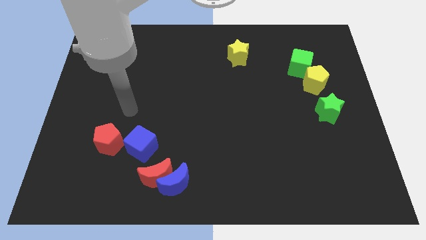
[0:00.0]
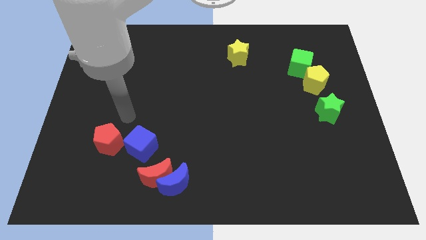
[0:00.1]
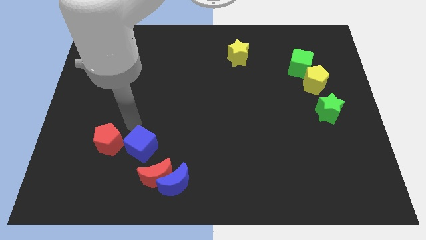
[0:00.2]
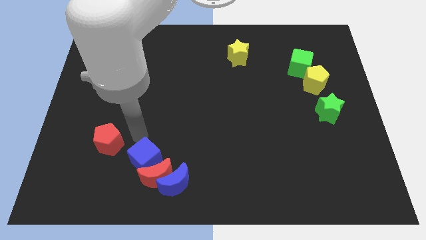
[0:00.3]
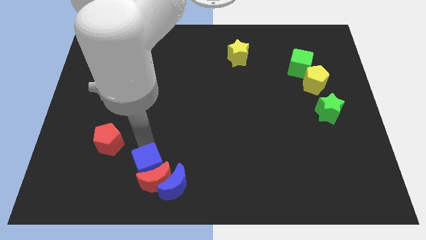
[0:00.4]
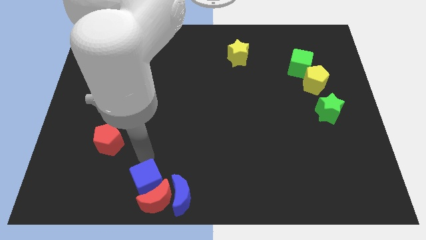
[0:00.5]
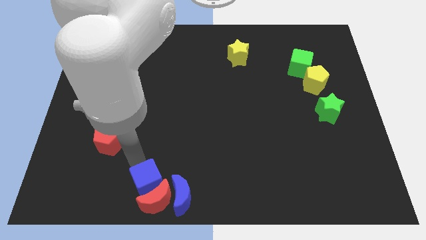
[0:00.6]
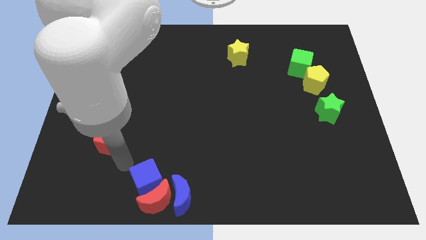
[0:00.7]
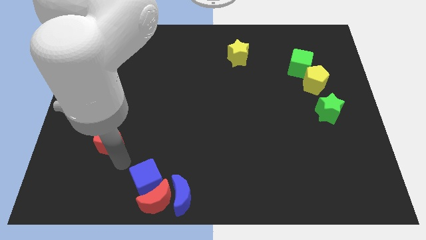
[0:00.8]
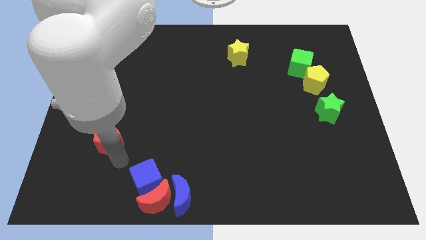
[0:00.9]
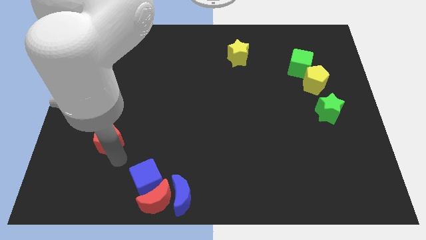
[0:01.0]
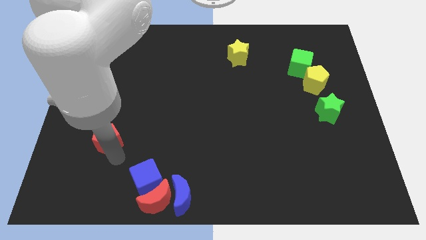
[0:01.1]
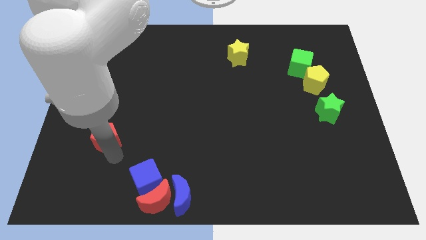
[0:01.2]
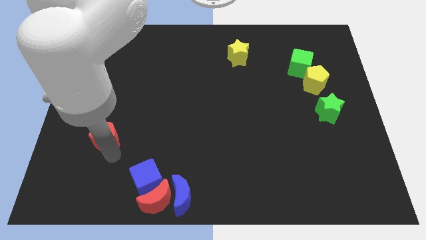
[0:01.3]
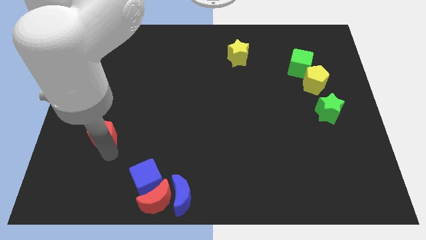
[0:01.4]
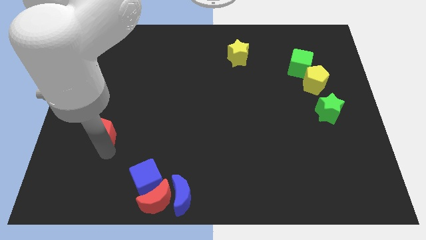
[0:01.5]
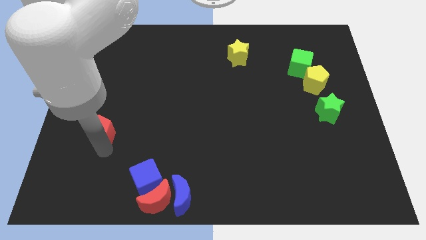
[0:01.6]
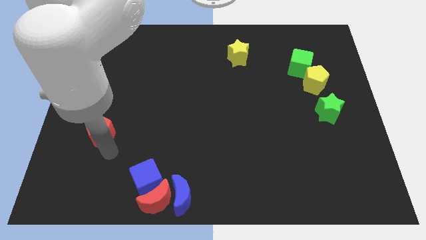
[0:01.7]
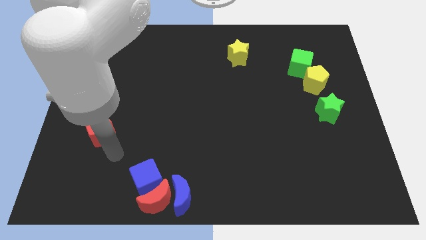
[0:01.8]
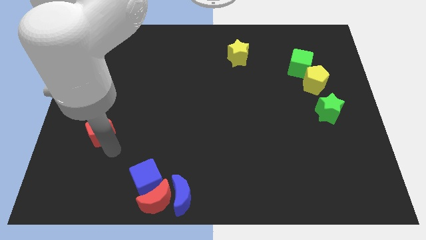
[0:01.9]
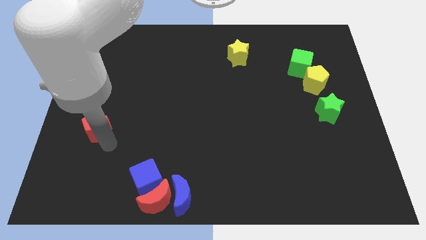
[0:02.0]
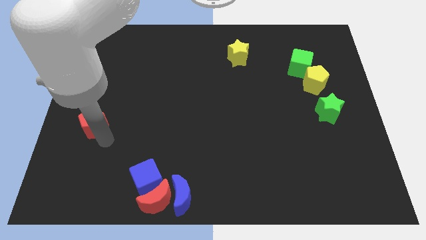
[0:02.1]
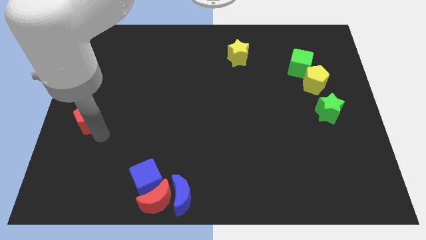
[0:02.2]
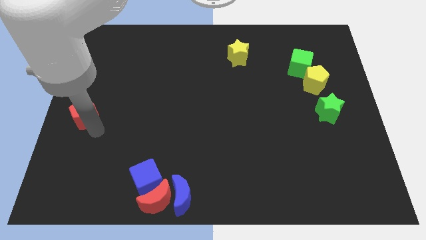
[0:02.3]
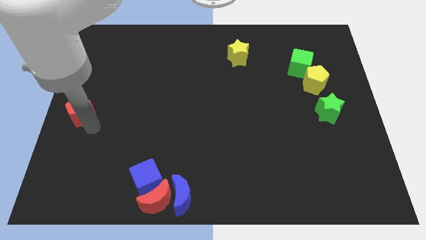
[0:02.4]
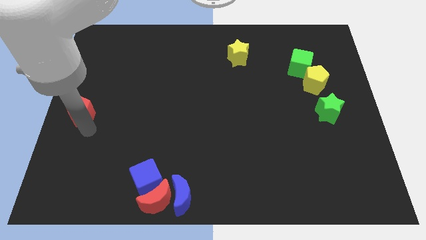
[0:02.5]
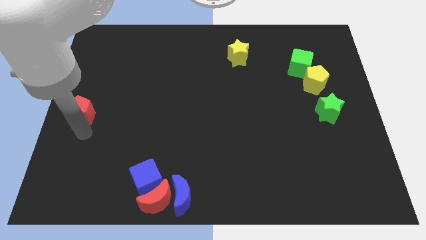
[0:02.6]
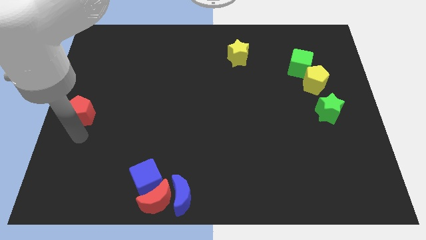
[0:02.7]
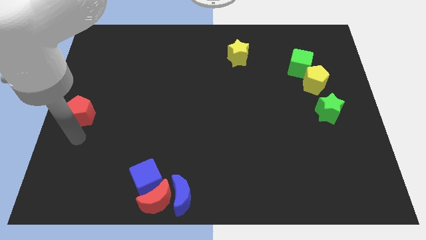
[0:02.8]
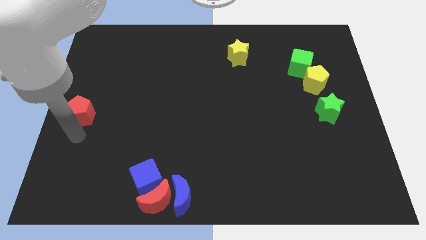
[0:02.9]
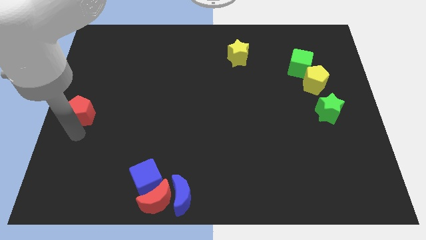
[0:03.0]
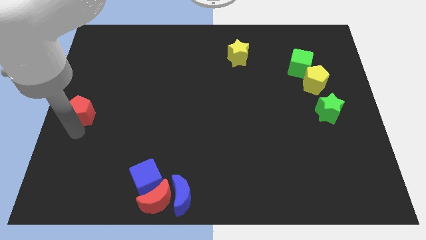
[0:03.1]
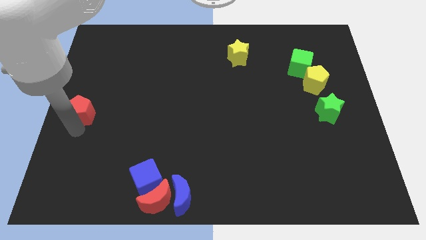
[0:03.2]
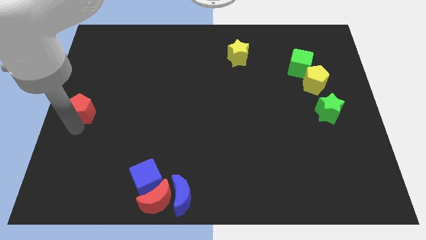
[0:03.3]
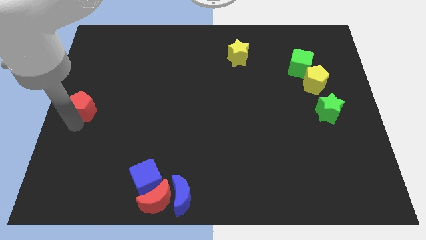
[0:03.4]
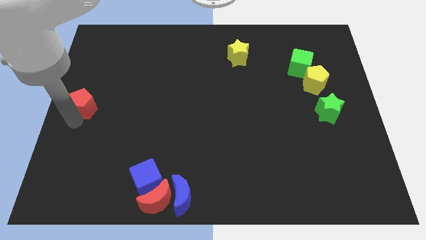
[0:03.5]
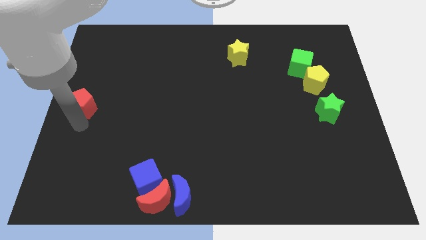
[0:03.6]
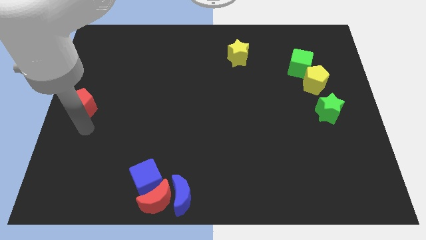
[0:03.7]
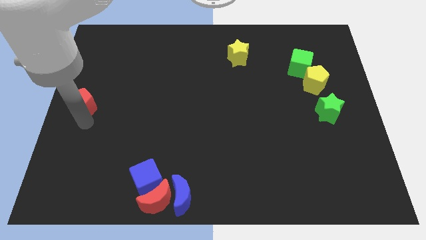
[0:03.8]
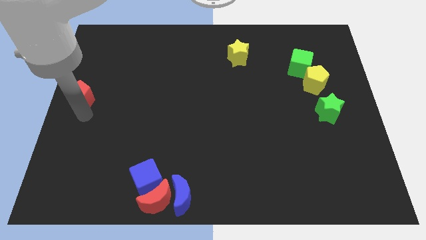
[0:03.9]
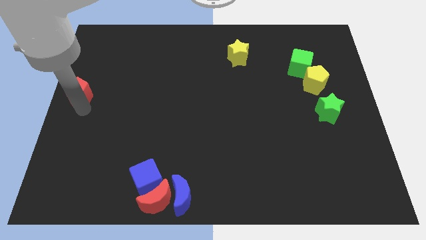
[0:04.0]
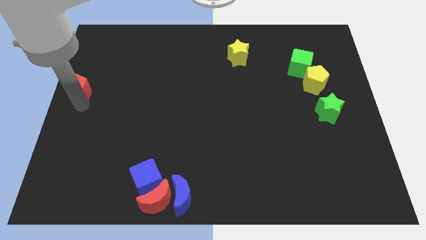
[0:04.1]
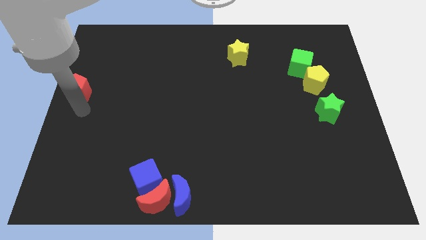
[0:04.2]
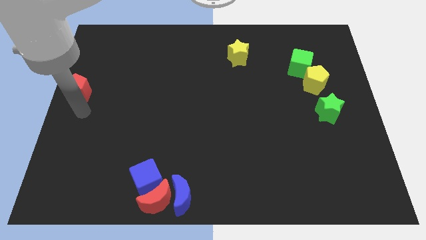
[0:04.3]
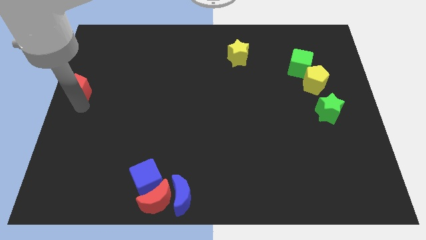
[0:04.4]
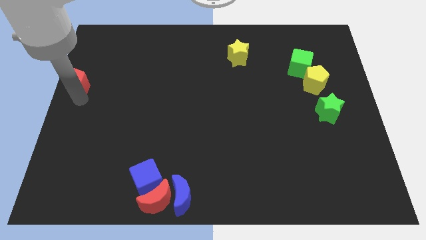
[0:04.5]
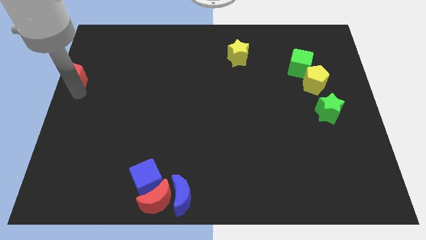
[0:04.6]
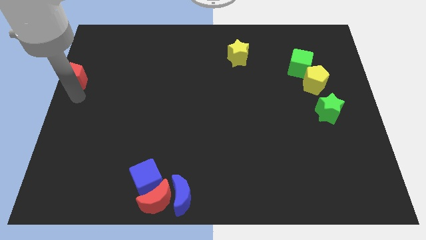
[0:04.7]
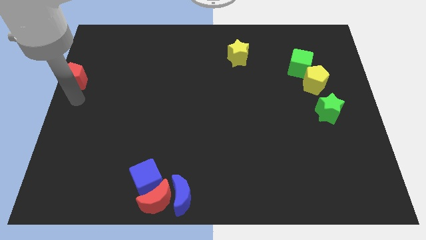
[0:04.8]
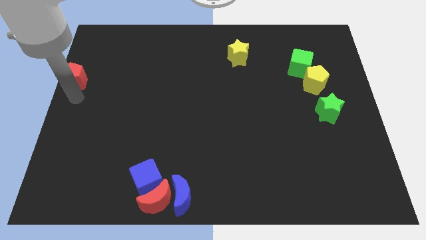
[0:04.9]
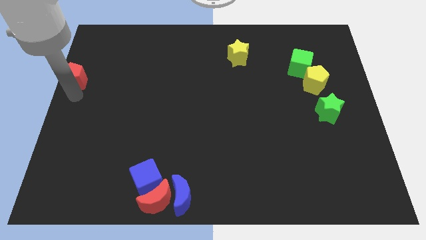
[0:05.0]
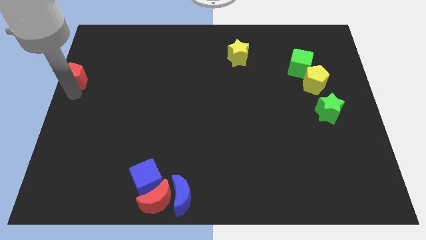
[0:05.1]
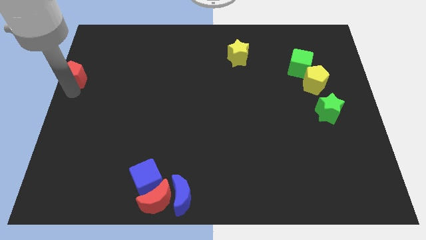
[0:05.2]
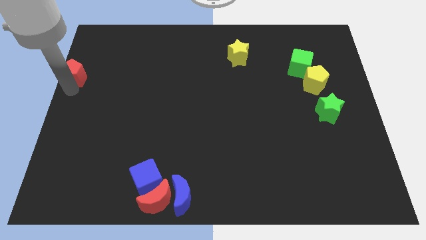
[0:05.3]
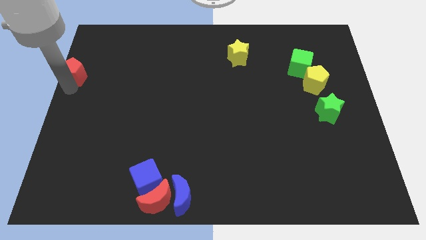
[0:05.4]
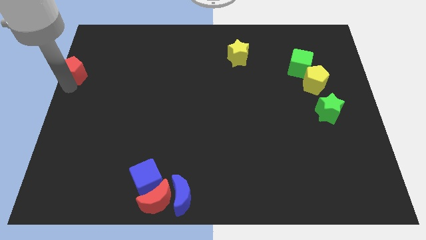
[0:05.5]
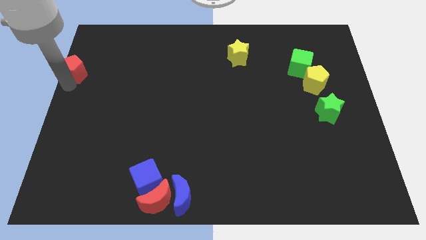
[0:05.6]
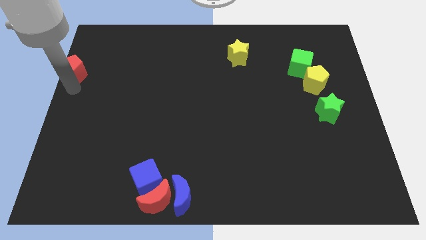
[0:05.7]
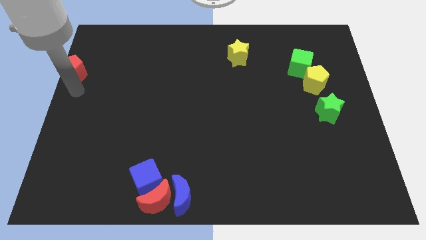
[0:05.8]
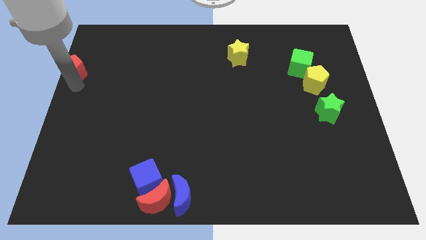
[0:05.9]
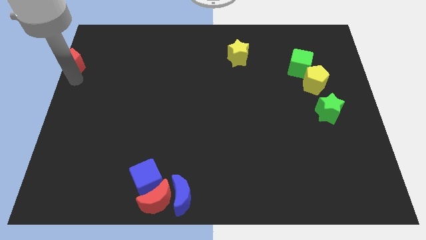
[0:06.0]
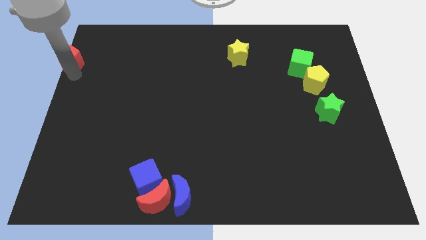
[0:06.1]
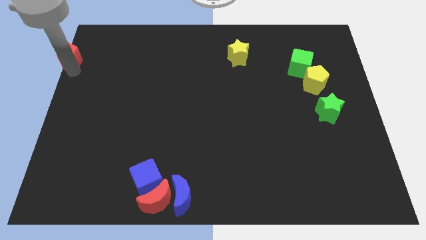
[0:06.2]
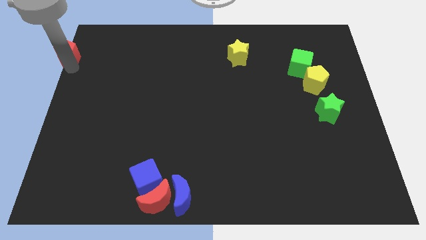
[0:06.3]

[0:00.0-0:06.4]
move the red pentagon to the top left corner

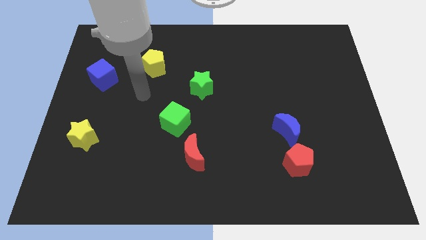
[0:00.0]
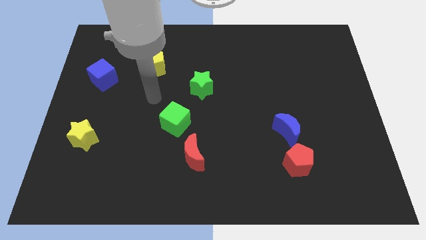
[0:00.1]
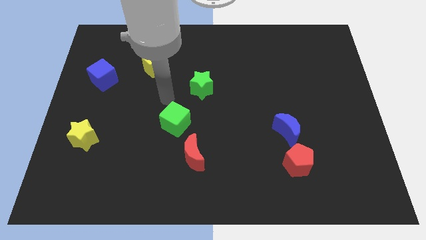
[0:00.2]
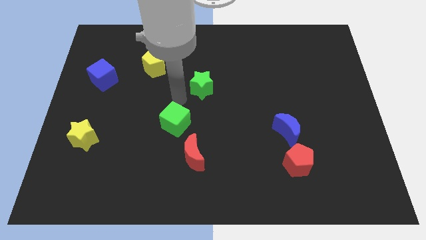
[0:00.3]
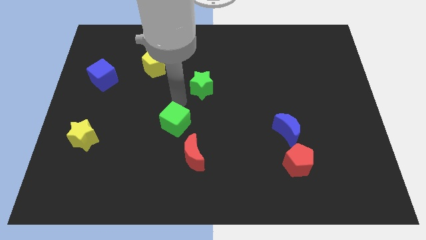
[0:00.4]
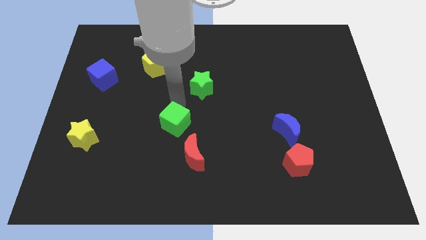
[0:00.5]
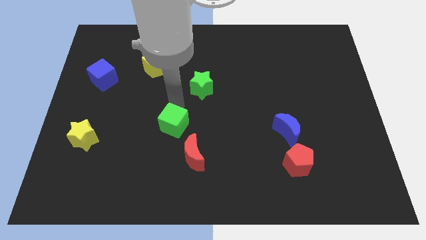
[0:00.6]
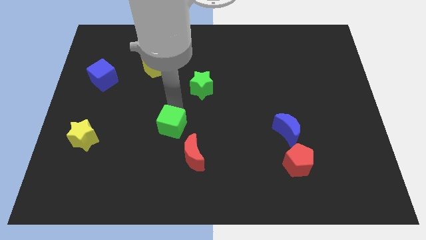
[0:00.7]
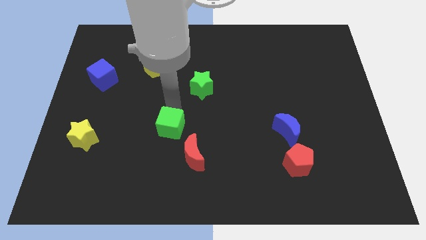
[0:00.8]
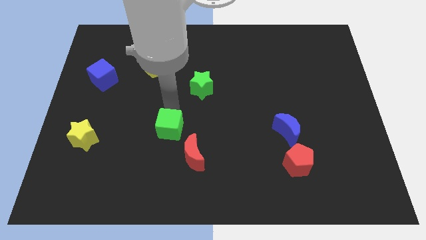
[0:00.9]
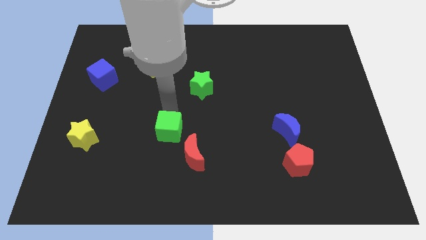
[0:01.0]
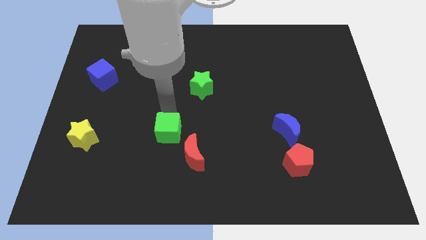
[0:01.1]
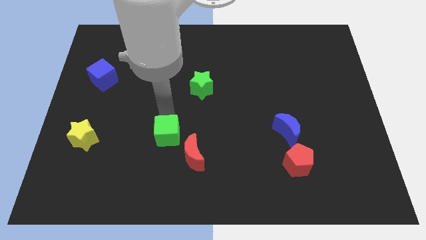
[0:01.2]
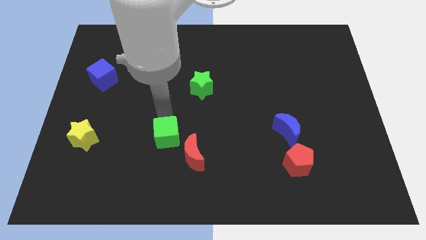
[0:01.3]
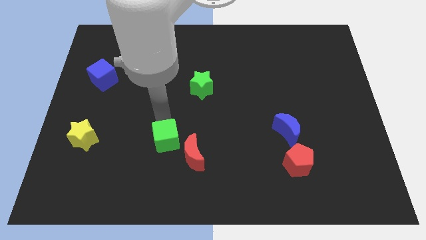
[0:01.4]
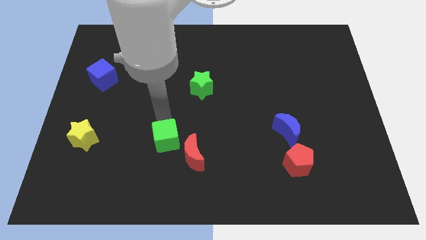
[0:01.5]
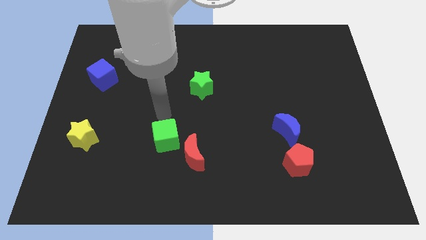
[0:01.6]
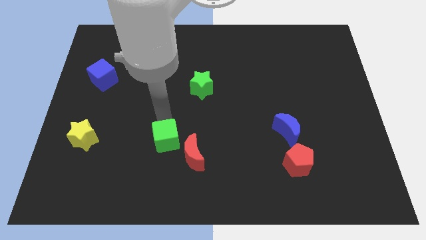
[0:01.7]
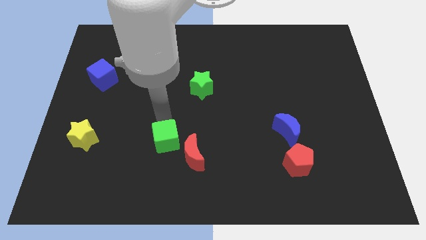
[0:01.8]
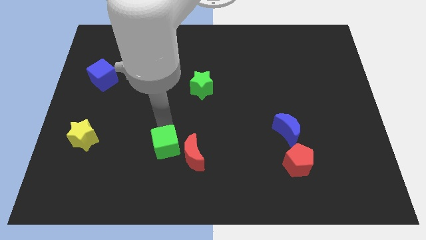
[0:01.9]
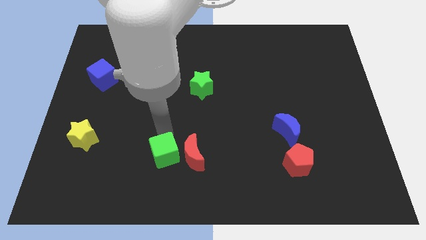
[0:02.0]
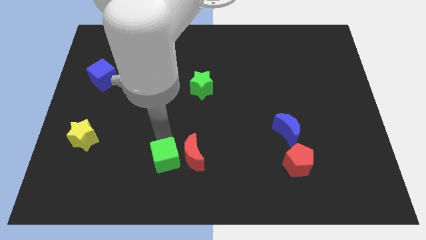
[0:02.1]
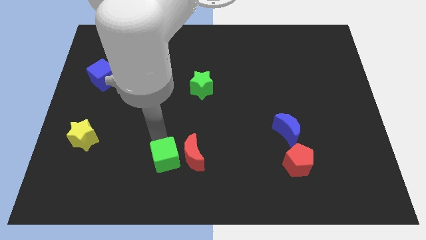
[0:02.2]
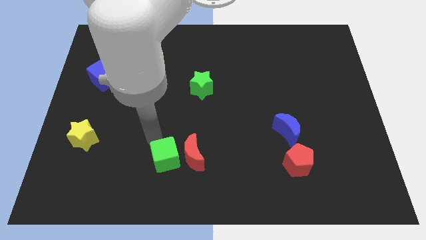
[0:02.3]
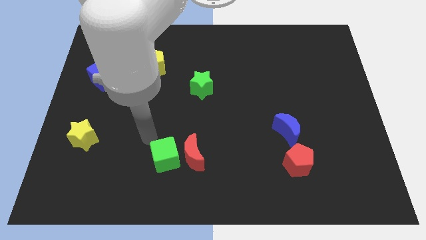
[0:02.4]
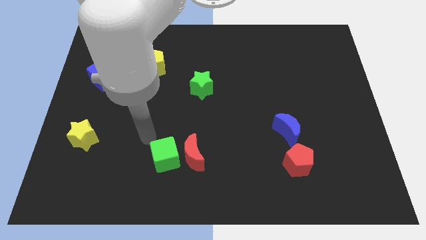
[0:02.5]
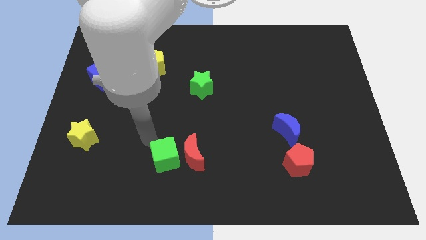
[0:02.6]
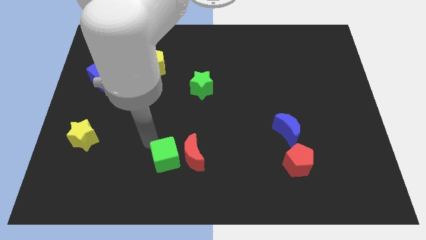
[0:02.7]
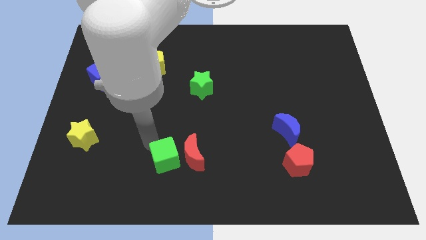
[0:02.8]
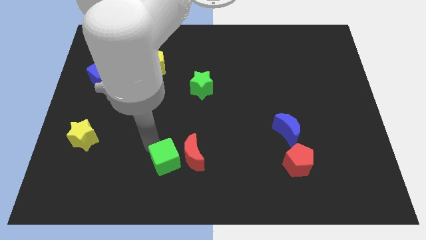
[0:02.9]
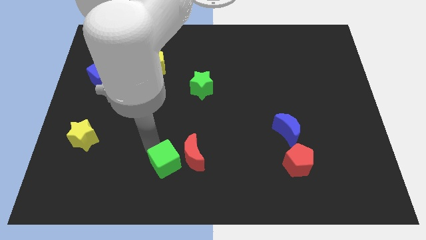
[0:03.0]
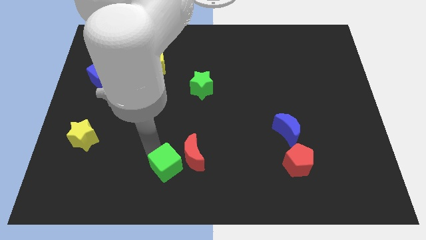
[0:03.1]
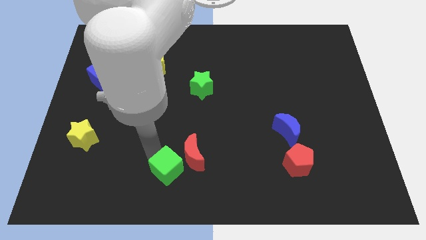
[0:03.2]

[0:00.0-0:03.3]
move the green cube to the bottom
